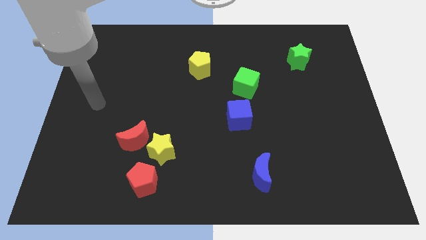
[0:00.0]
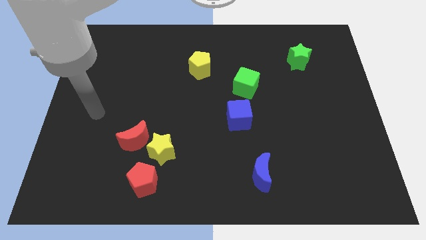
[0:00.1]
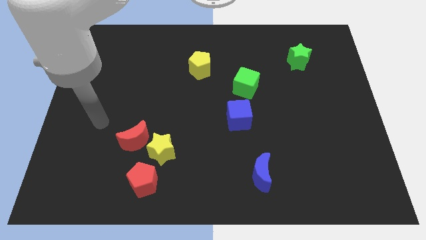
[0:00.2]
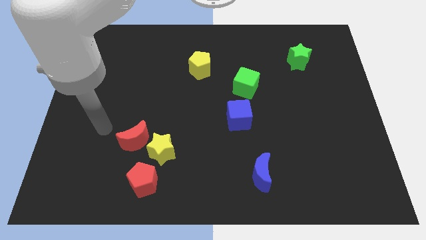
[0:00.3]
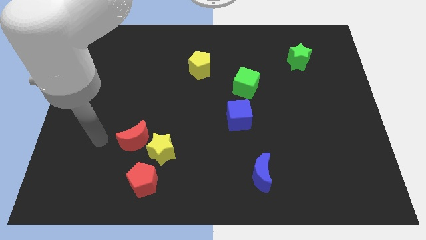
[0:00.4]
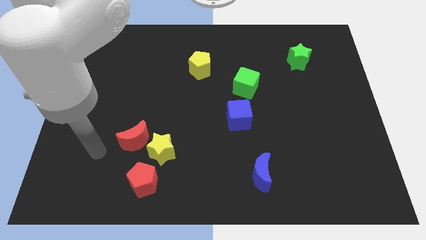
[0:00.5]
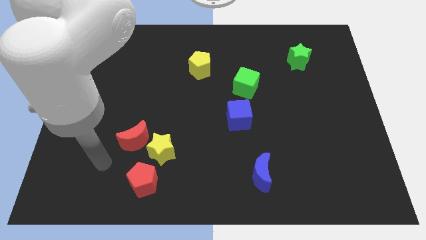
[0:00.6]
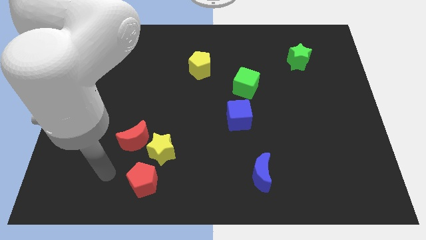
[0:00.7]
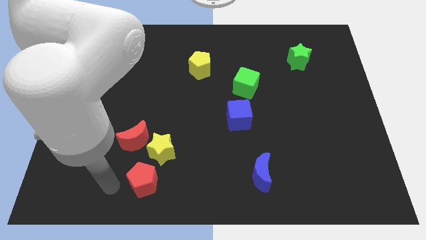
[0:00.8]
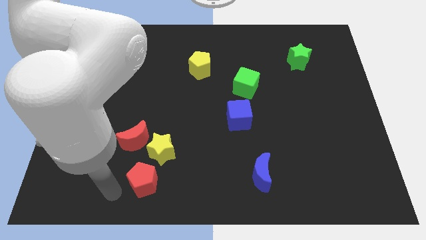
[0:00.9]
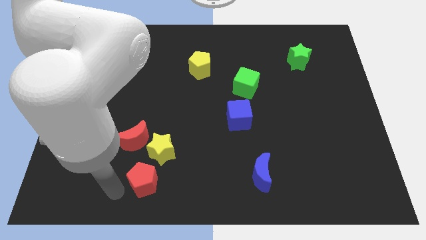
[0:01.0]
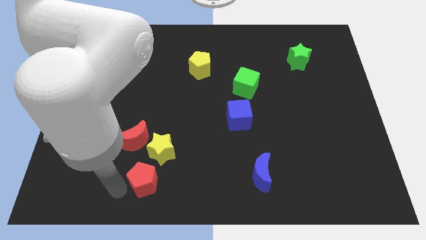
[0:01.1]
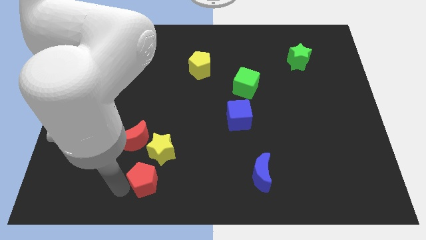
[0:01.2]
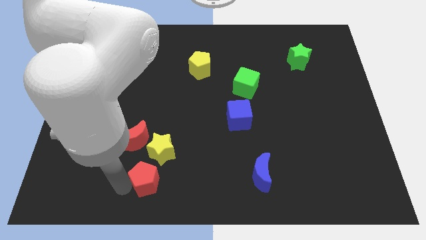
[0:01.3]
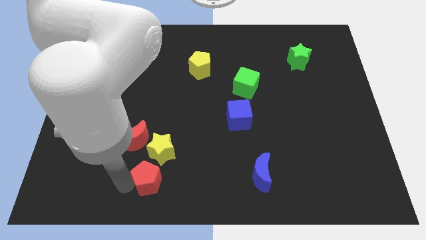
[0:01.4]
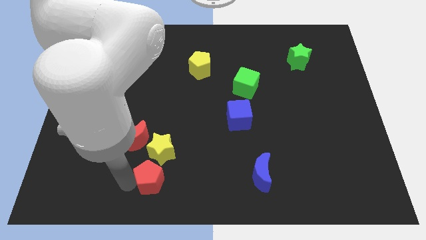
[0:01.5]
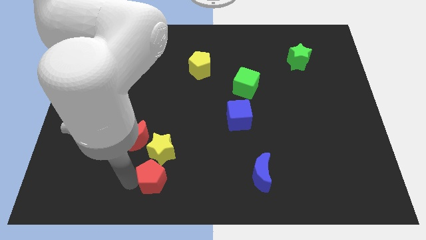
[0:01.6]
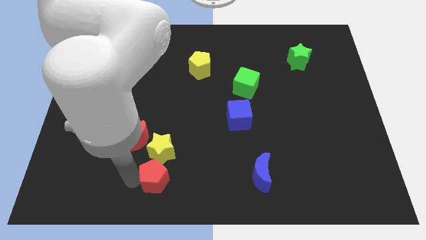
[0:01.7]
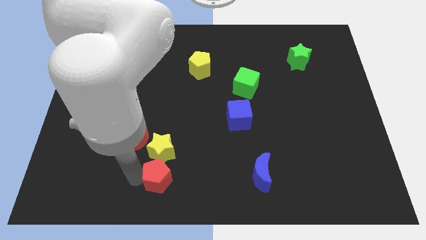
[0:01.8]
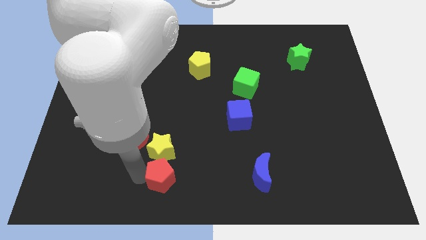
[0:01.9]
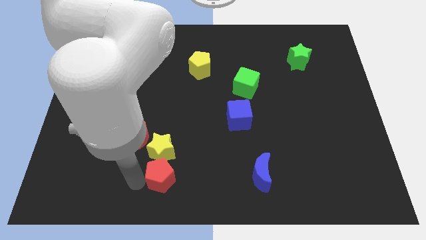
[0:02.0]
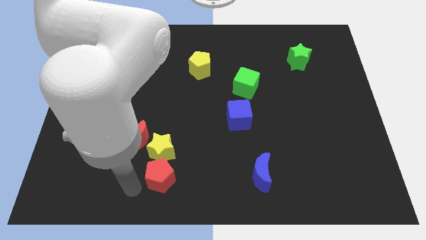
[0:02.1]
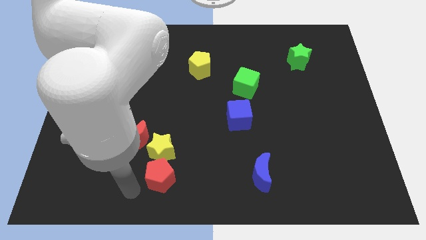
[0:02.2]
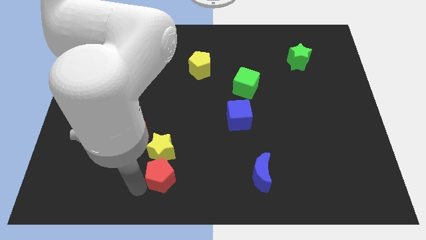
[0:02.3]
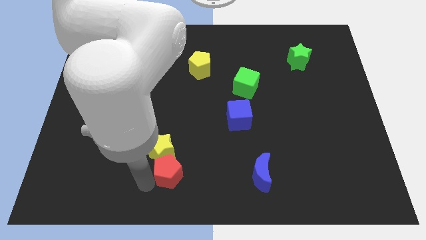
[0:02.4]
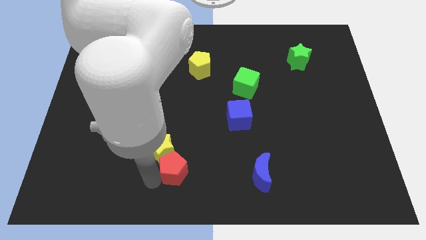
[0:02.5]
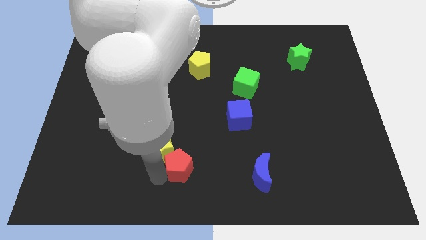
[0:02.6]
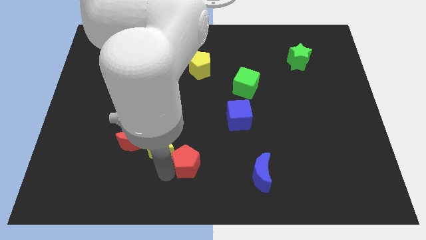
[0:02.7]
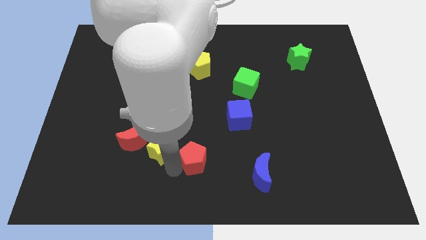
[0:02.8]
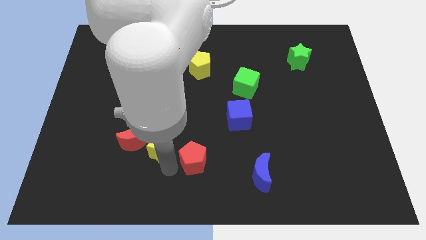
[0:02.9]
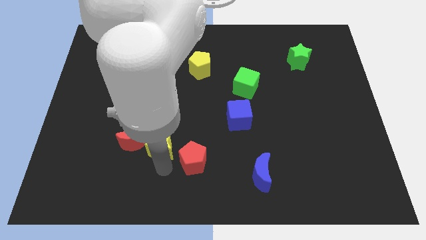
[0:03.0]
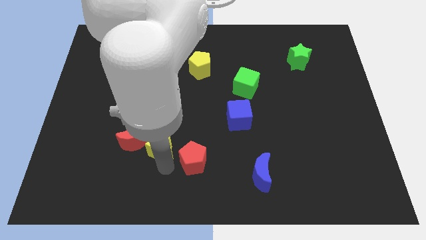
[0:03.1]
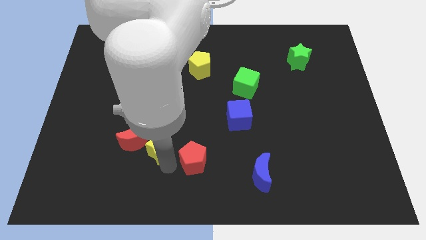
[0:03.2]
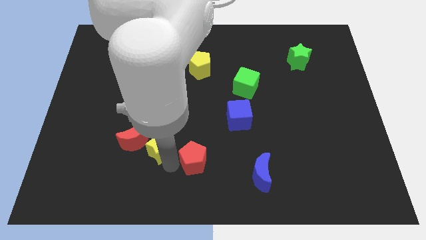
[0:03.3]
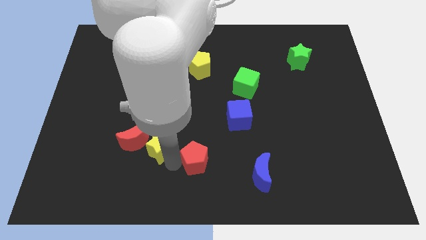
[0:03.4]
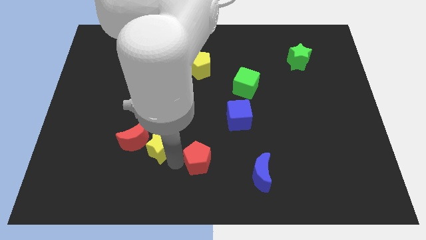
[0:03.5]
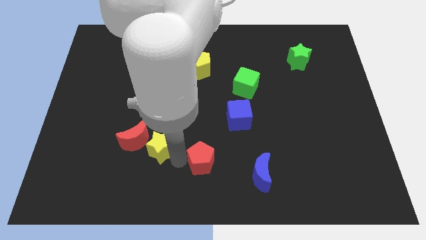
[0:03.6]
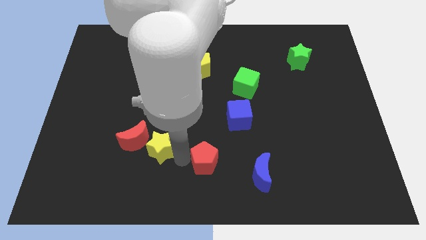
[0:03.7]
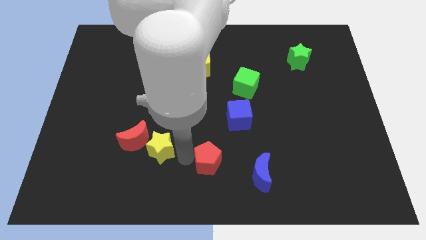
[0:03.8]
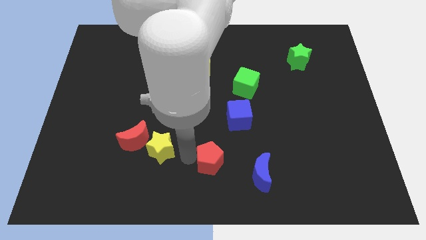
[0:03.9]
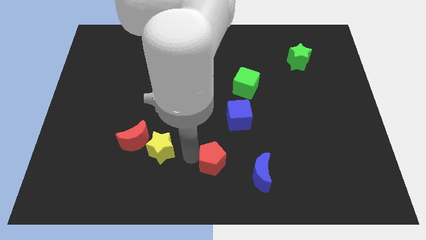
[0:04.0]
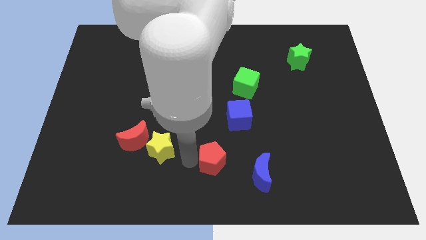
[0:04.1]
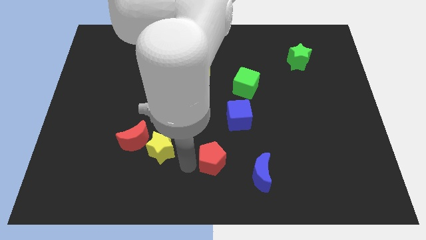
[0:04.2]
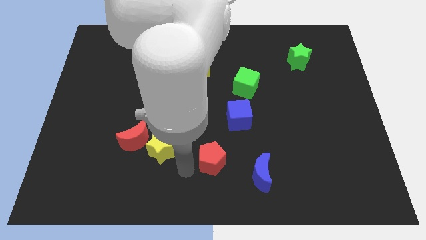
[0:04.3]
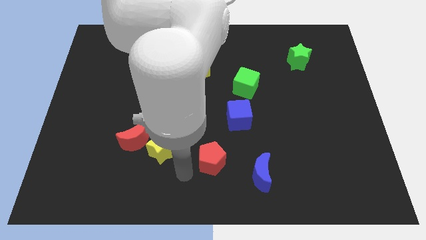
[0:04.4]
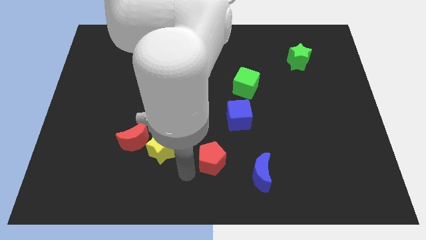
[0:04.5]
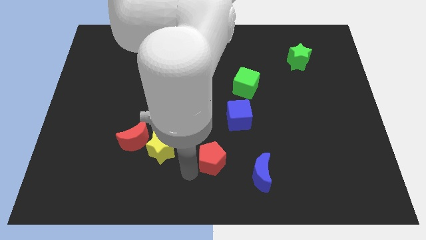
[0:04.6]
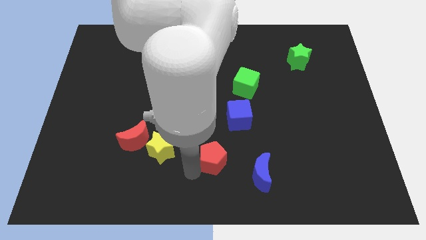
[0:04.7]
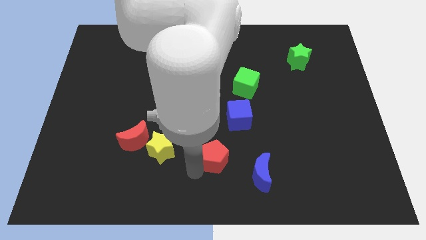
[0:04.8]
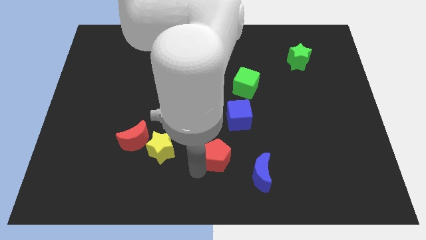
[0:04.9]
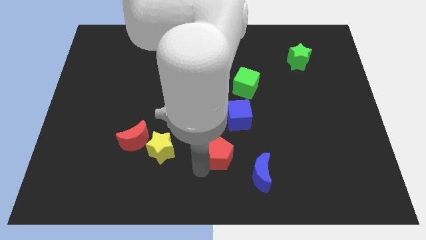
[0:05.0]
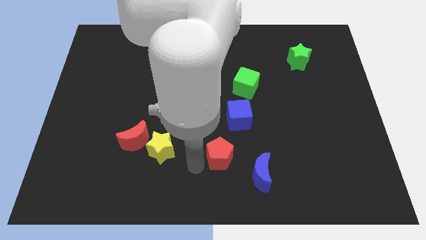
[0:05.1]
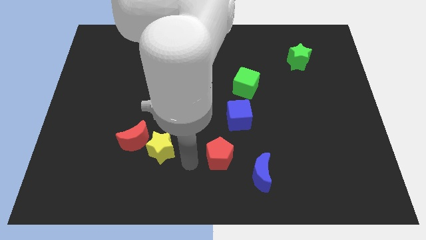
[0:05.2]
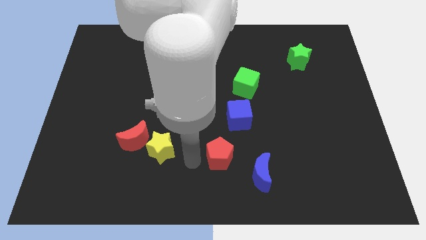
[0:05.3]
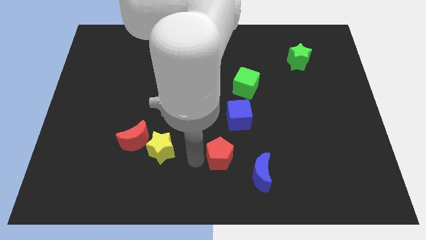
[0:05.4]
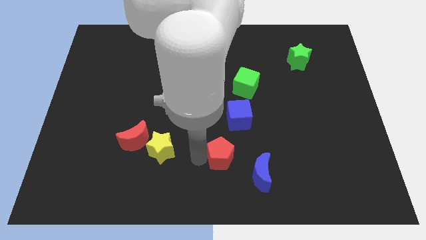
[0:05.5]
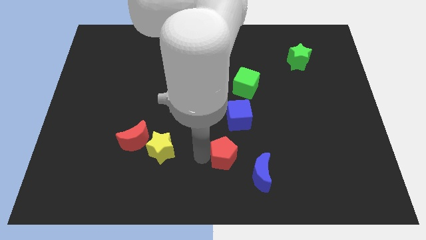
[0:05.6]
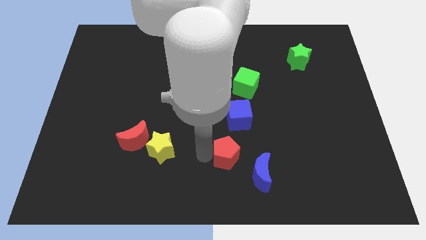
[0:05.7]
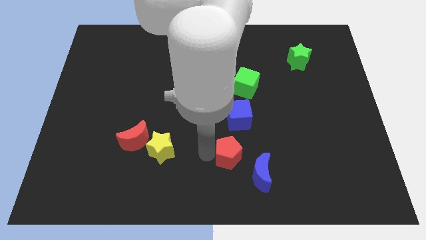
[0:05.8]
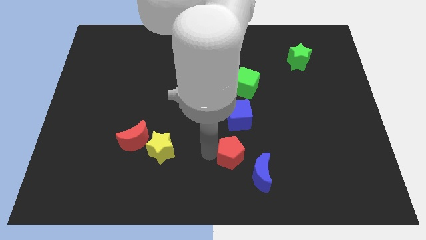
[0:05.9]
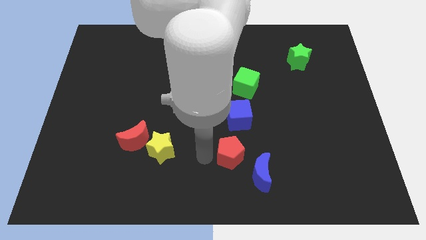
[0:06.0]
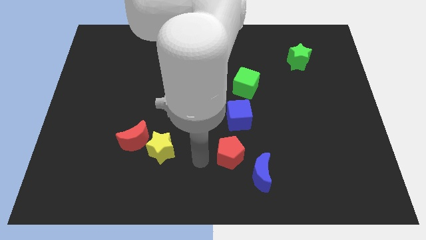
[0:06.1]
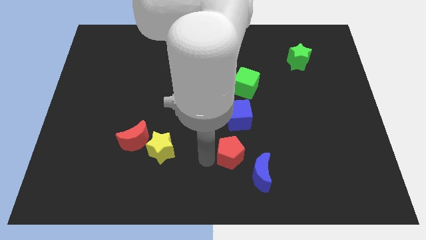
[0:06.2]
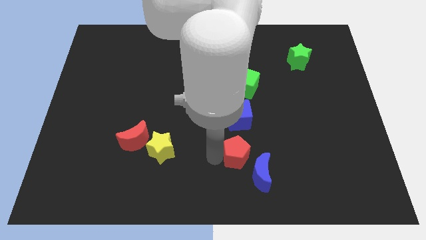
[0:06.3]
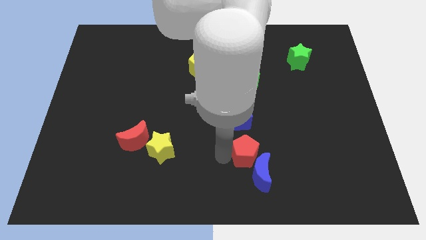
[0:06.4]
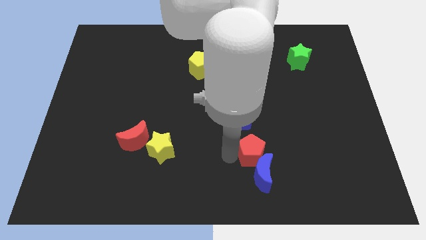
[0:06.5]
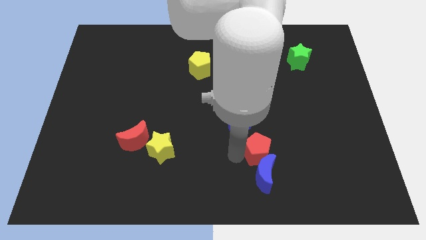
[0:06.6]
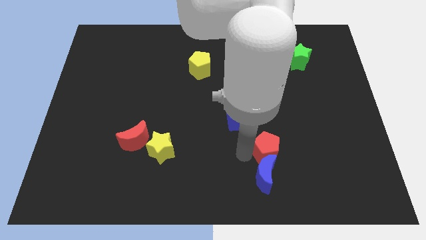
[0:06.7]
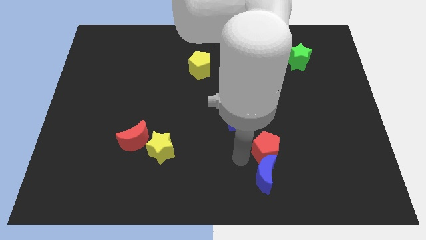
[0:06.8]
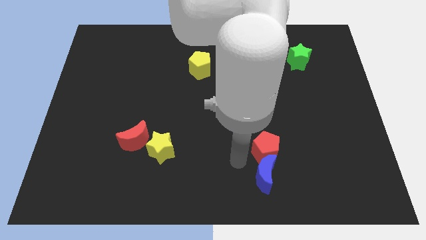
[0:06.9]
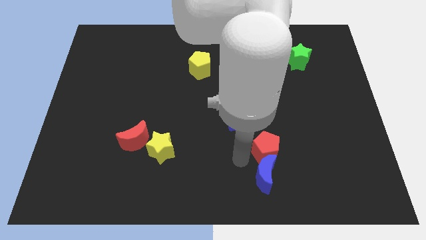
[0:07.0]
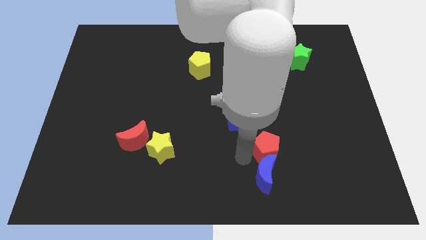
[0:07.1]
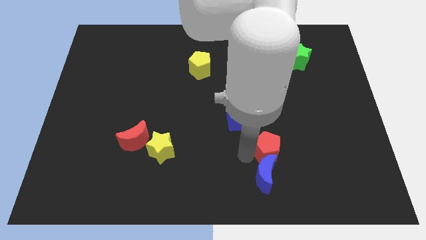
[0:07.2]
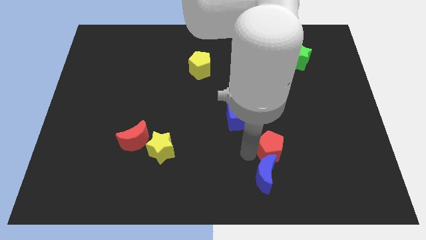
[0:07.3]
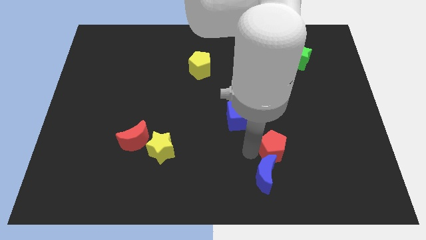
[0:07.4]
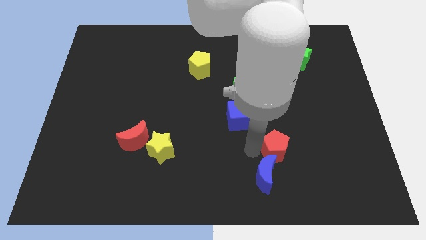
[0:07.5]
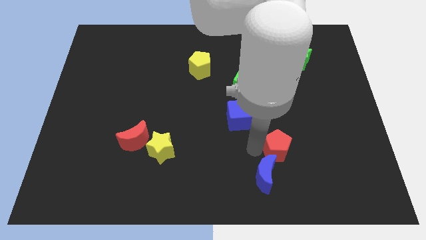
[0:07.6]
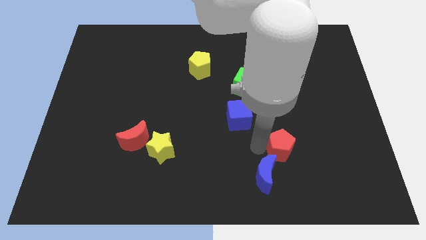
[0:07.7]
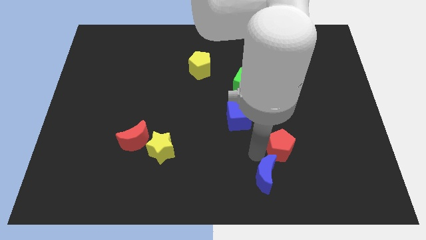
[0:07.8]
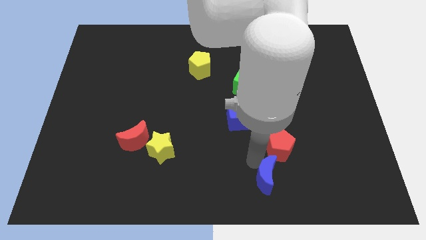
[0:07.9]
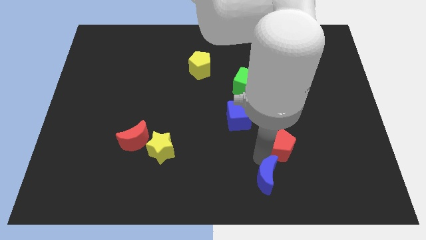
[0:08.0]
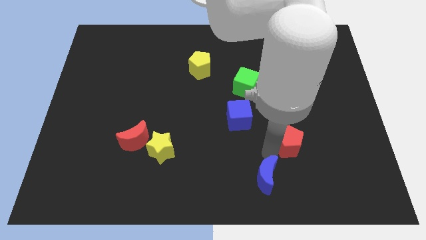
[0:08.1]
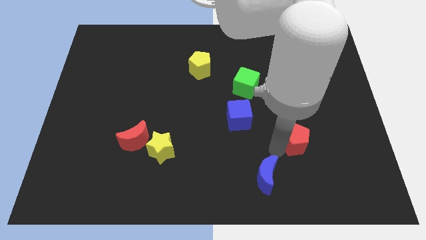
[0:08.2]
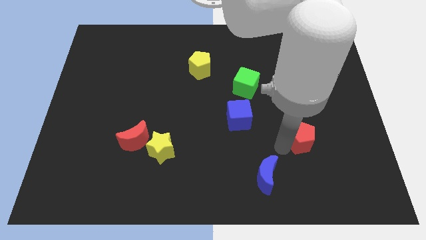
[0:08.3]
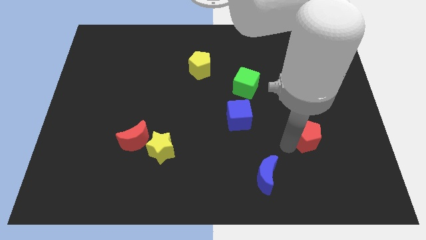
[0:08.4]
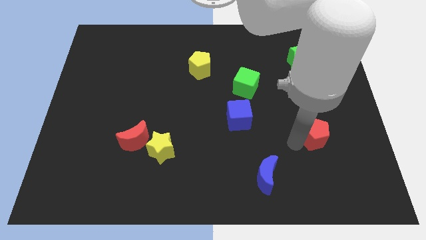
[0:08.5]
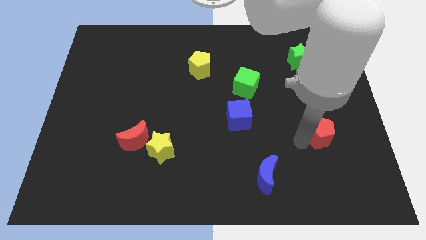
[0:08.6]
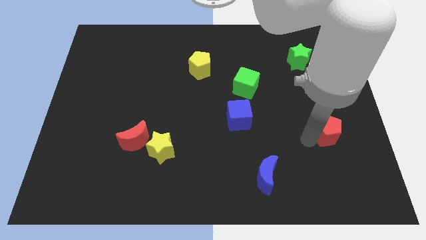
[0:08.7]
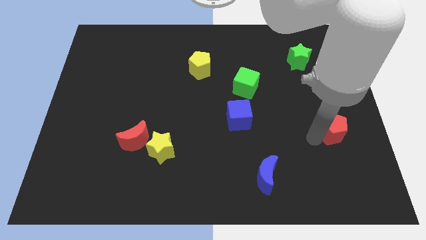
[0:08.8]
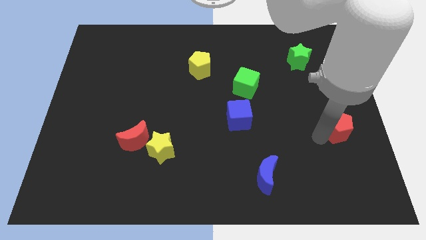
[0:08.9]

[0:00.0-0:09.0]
push the red pentagon to the center right
